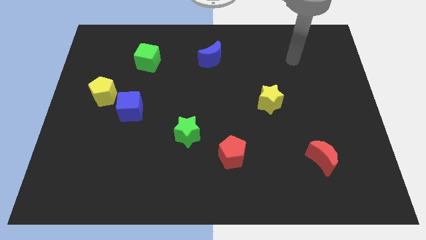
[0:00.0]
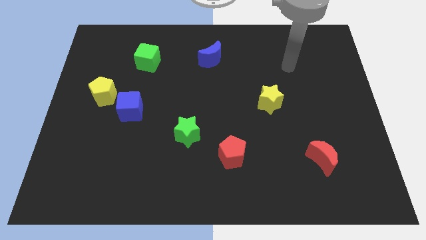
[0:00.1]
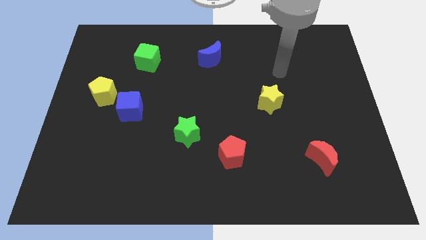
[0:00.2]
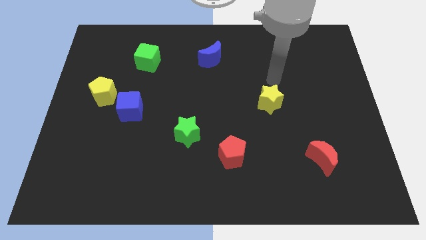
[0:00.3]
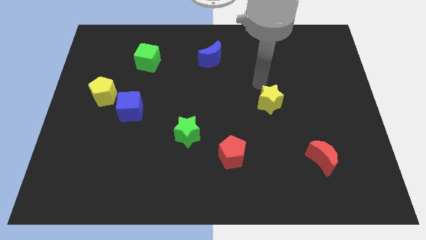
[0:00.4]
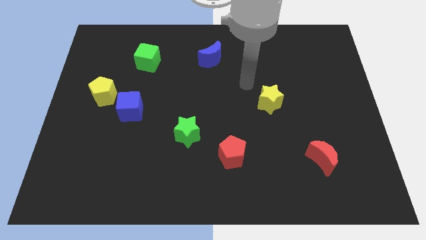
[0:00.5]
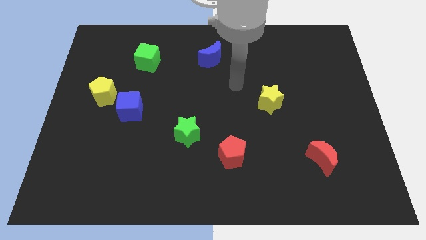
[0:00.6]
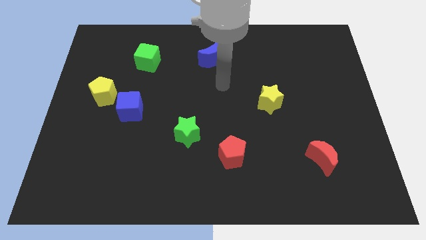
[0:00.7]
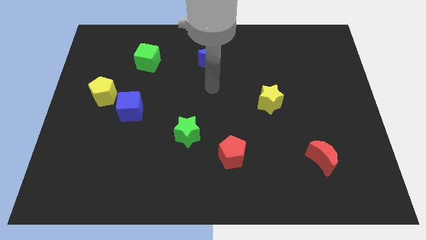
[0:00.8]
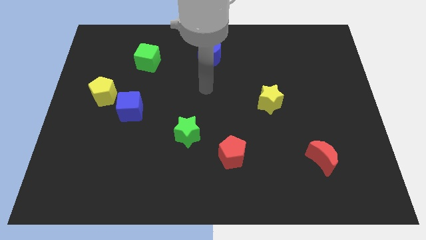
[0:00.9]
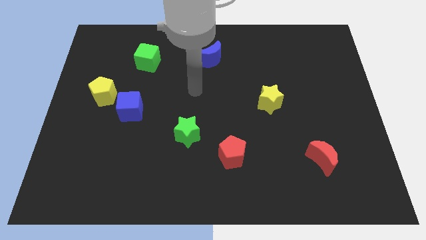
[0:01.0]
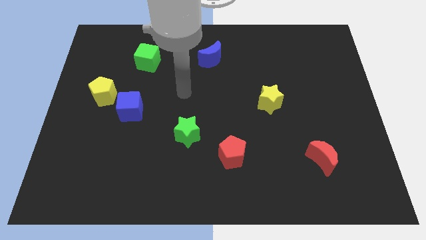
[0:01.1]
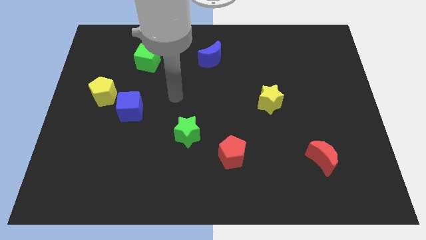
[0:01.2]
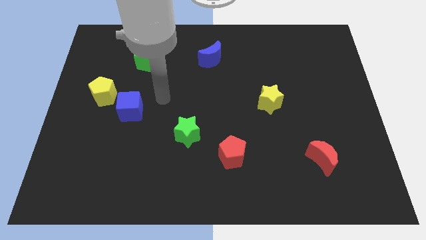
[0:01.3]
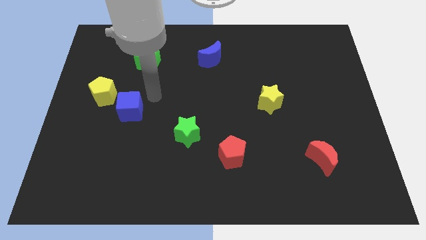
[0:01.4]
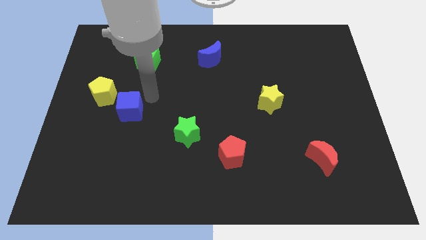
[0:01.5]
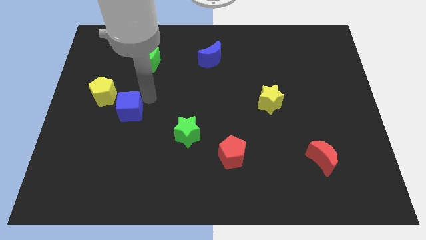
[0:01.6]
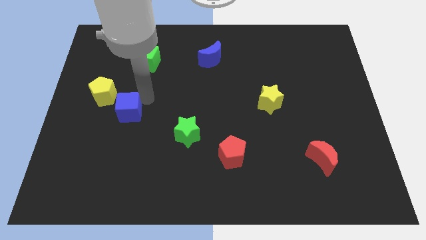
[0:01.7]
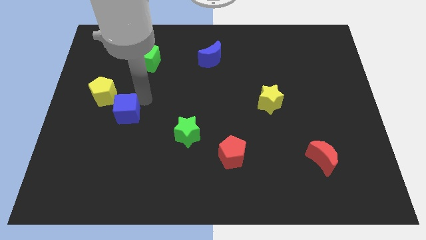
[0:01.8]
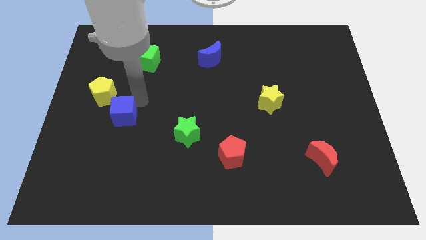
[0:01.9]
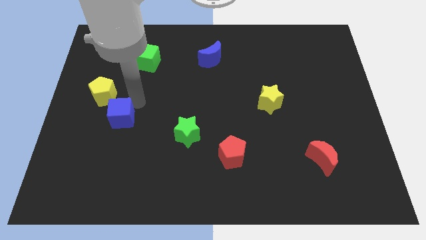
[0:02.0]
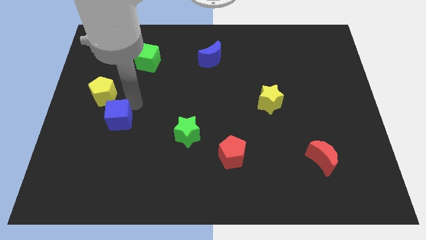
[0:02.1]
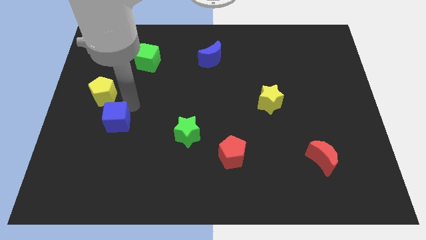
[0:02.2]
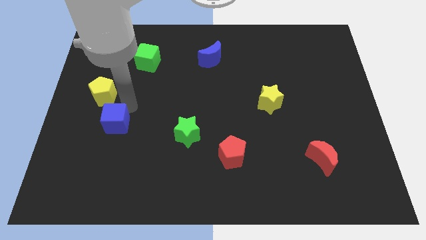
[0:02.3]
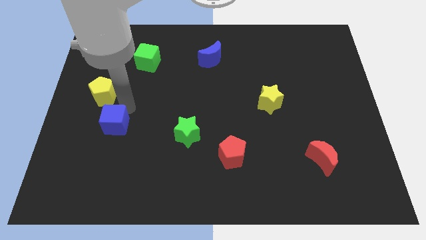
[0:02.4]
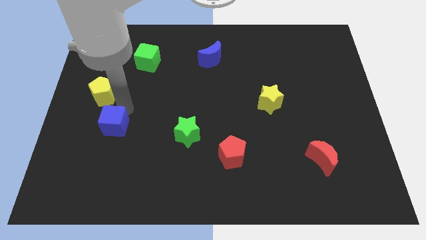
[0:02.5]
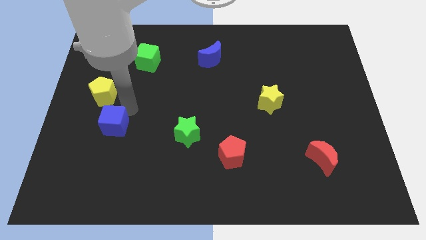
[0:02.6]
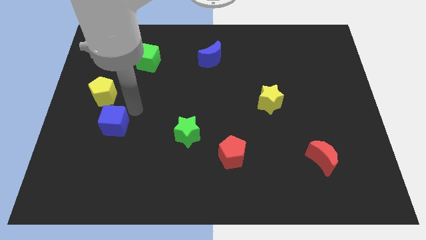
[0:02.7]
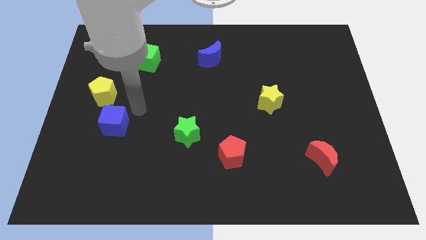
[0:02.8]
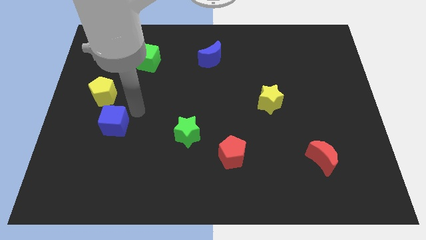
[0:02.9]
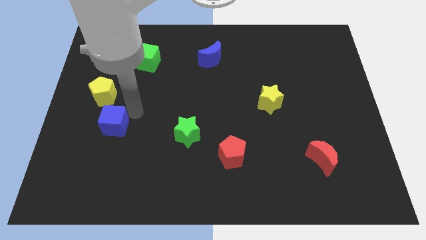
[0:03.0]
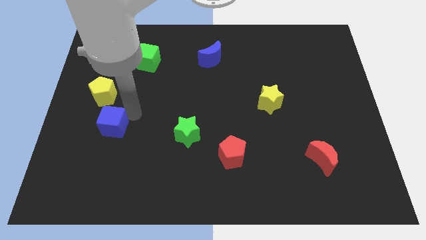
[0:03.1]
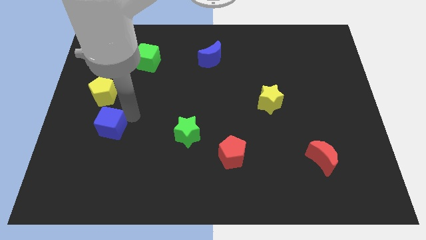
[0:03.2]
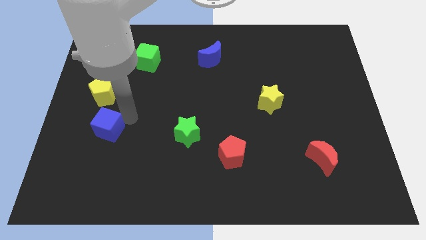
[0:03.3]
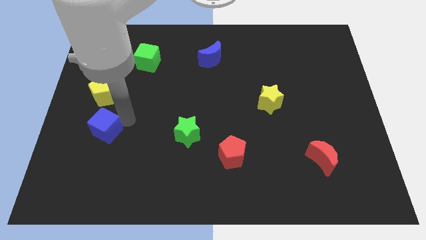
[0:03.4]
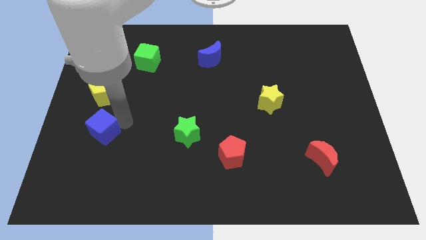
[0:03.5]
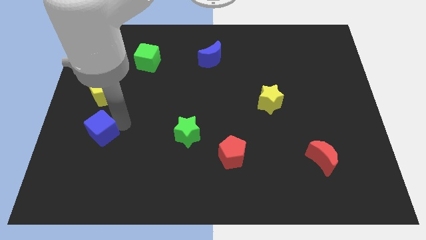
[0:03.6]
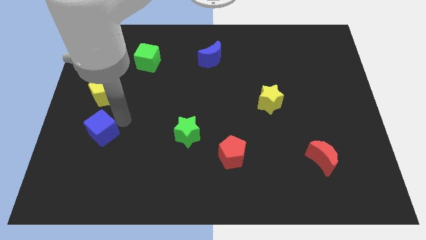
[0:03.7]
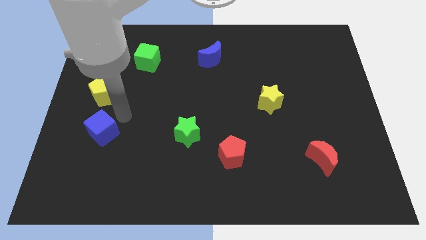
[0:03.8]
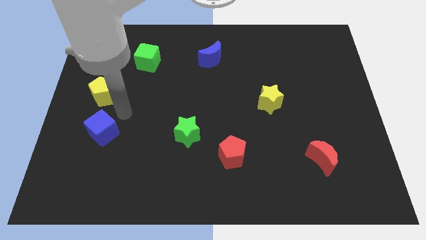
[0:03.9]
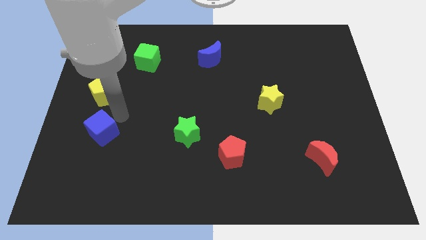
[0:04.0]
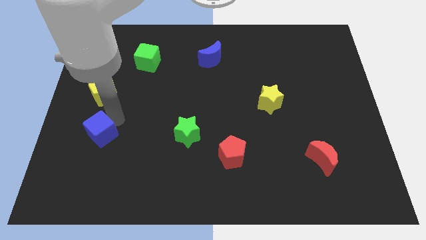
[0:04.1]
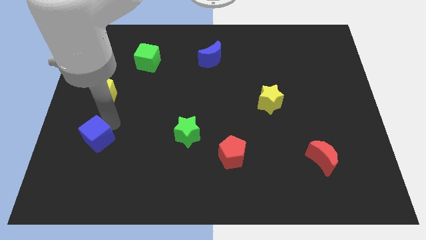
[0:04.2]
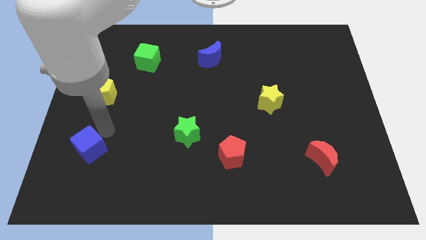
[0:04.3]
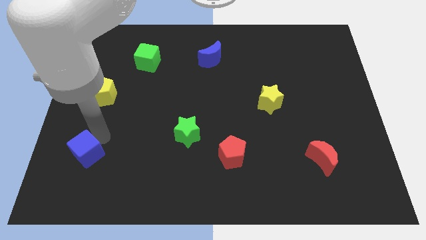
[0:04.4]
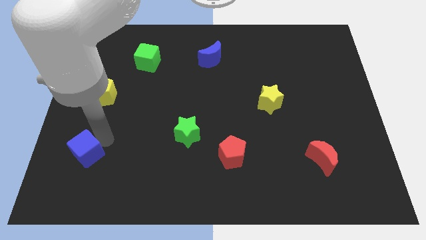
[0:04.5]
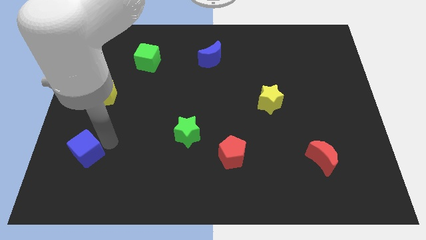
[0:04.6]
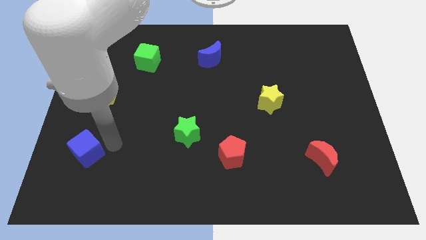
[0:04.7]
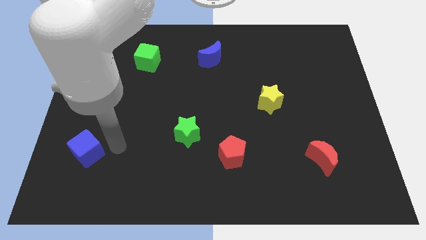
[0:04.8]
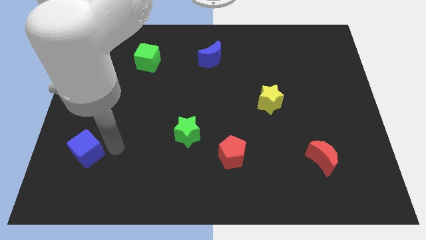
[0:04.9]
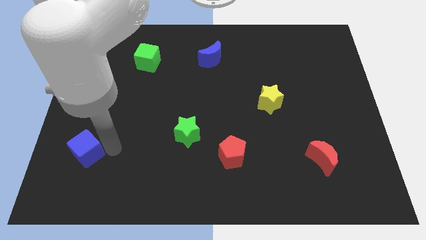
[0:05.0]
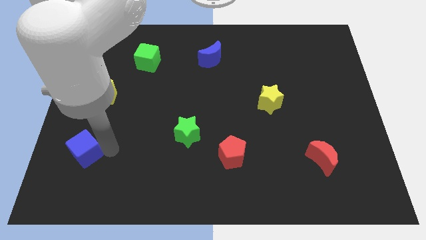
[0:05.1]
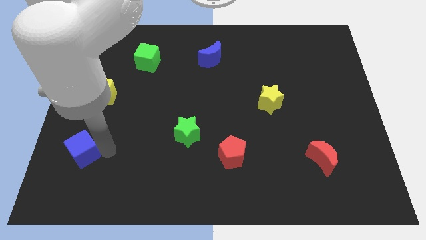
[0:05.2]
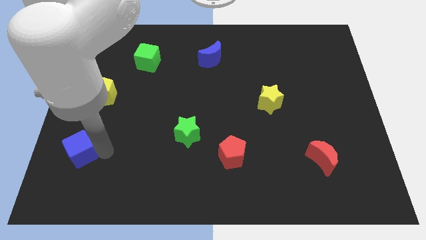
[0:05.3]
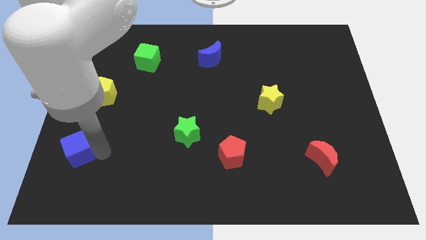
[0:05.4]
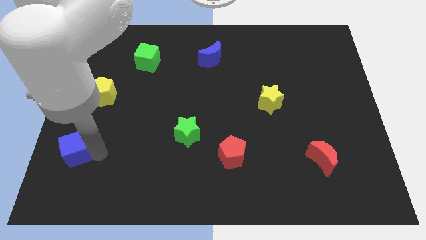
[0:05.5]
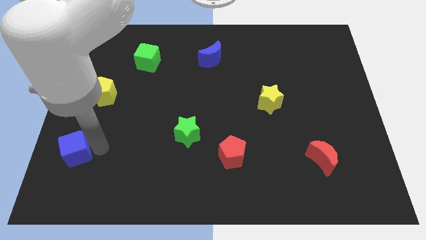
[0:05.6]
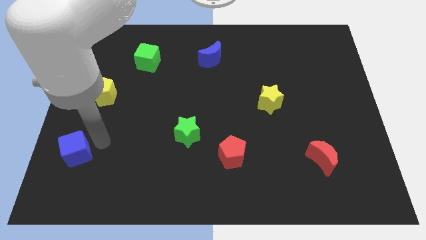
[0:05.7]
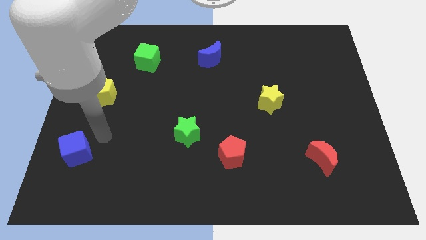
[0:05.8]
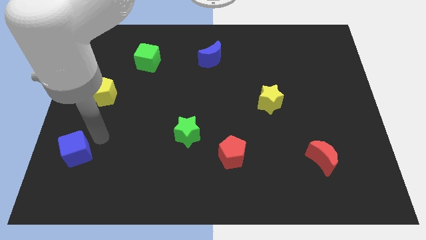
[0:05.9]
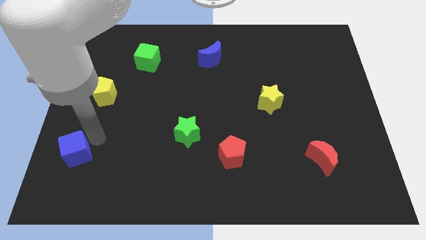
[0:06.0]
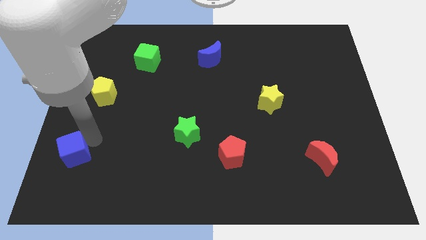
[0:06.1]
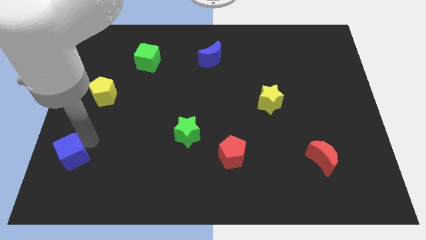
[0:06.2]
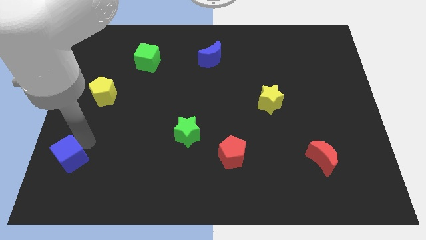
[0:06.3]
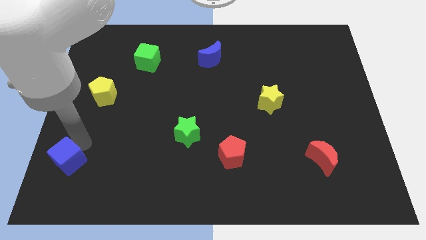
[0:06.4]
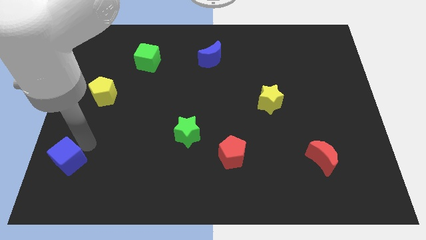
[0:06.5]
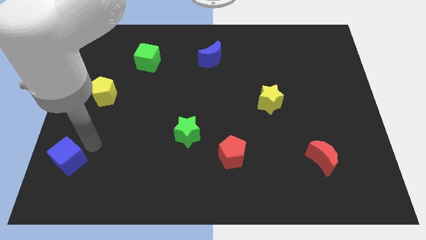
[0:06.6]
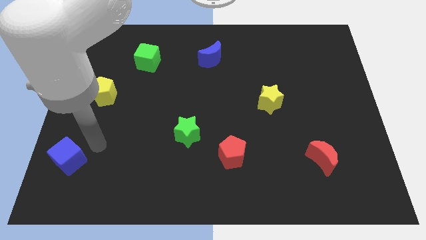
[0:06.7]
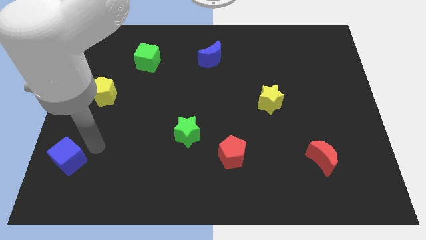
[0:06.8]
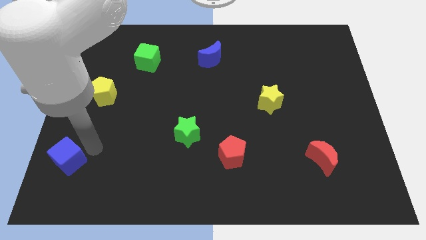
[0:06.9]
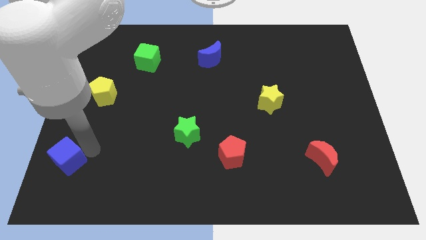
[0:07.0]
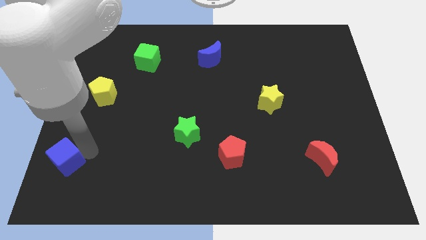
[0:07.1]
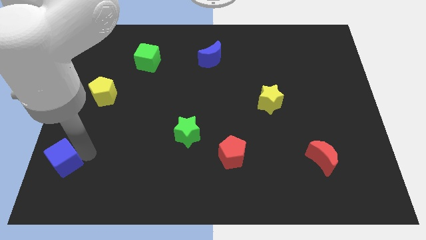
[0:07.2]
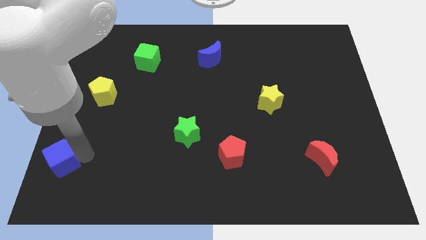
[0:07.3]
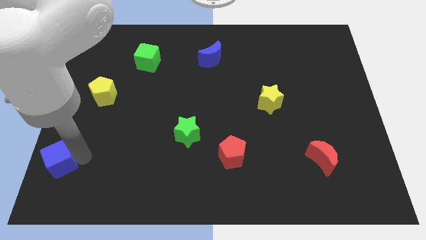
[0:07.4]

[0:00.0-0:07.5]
push the blue cube to the bottom left
